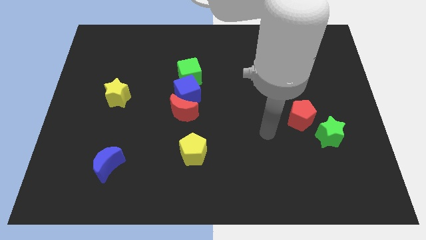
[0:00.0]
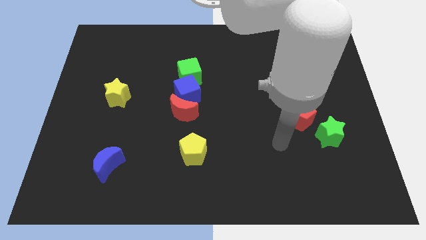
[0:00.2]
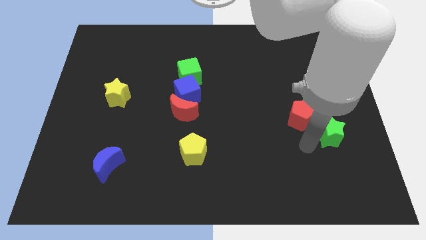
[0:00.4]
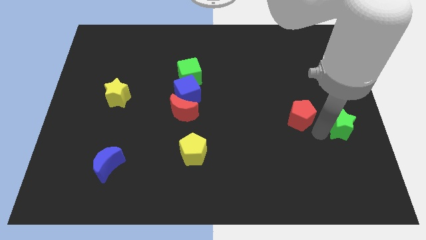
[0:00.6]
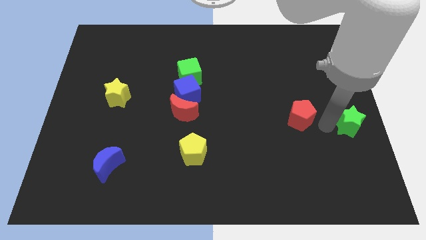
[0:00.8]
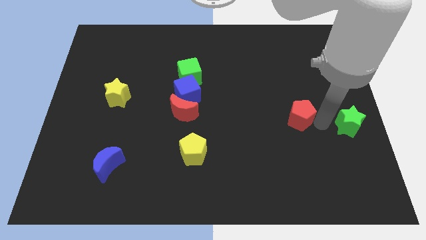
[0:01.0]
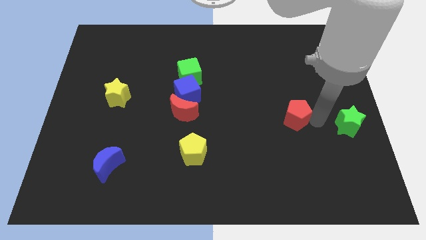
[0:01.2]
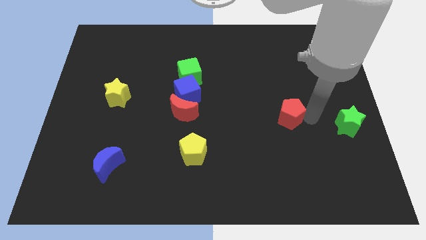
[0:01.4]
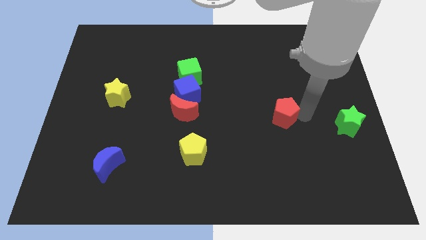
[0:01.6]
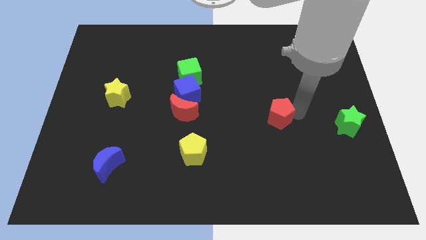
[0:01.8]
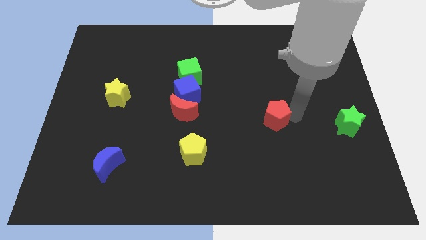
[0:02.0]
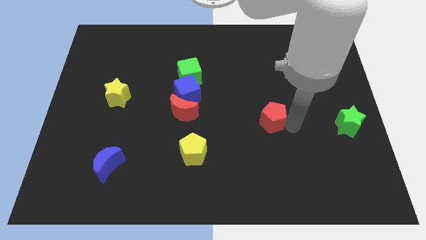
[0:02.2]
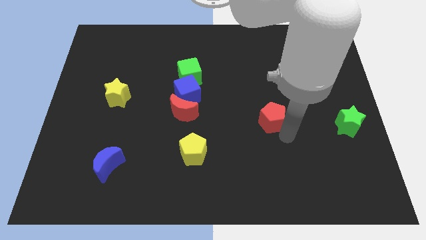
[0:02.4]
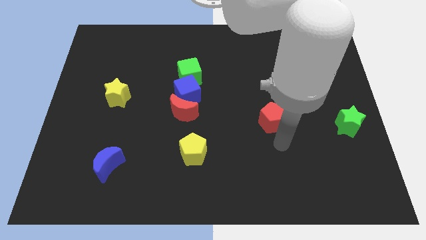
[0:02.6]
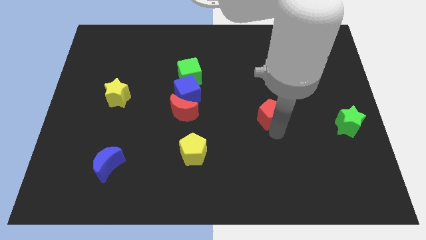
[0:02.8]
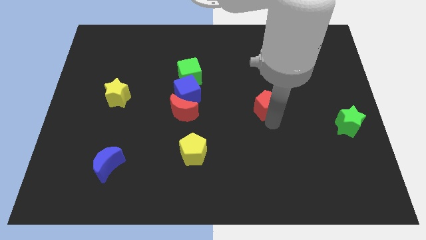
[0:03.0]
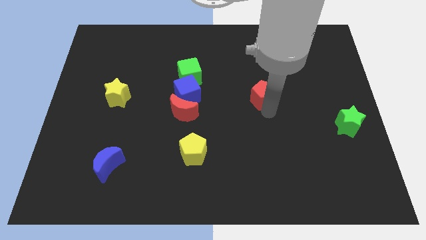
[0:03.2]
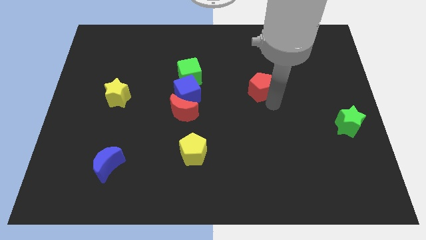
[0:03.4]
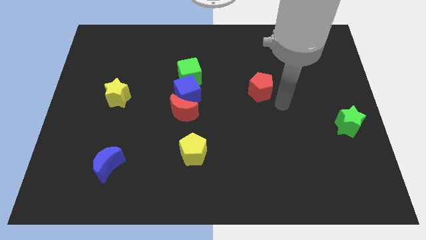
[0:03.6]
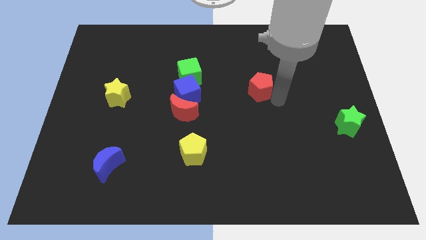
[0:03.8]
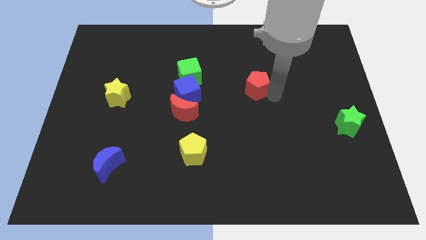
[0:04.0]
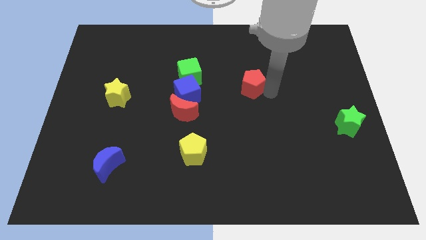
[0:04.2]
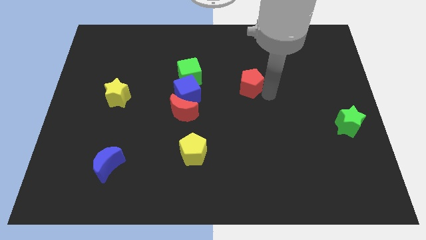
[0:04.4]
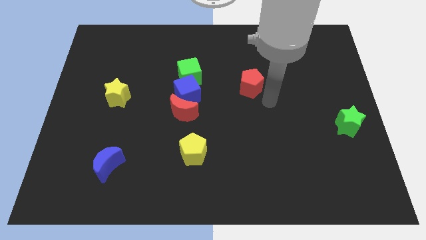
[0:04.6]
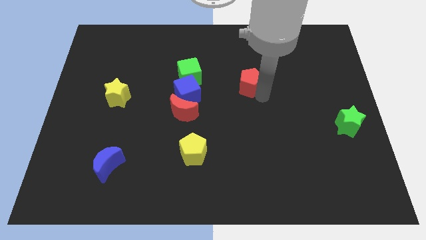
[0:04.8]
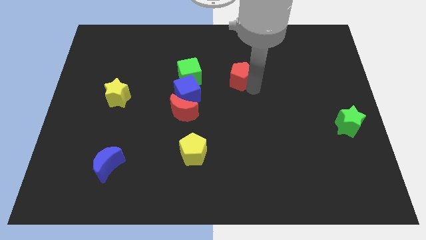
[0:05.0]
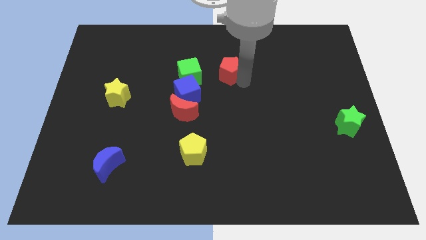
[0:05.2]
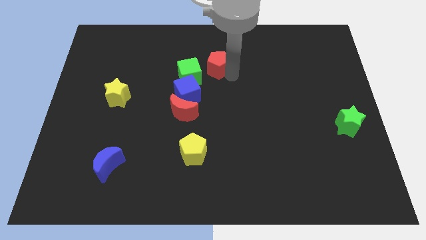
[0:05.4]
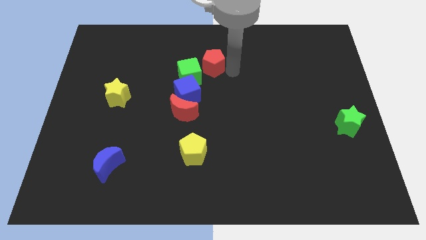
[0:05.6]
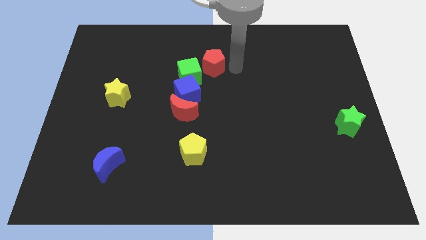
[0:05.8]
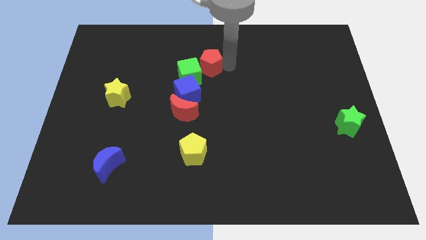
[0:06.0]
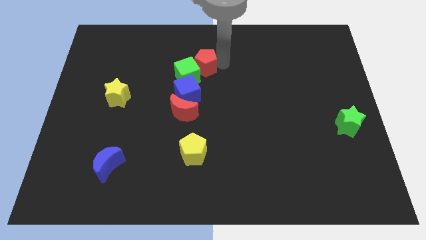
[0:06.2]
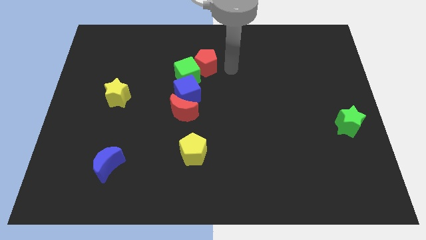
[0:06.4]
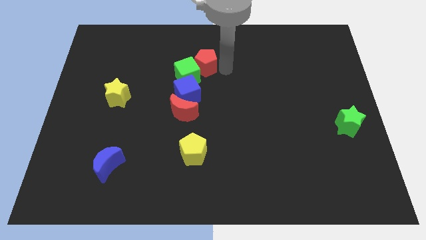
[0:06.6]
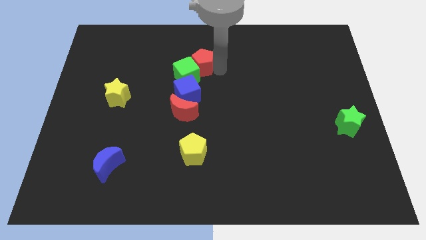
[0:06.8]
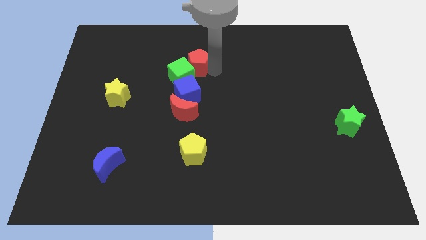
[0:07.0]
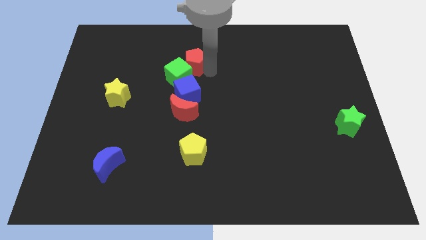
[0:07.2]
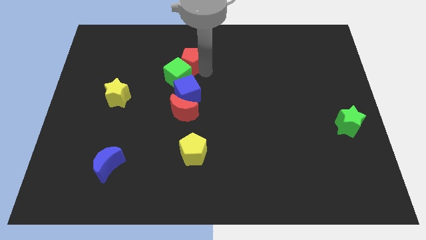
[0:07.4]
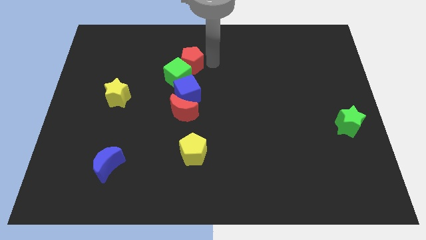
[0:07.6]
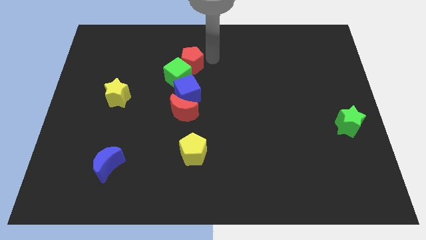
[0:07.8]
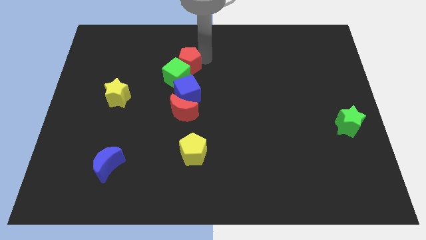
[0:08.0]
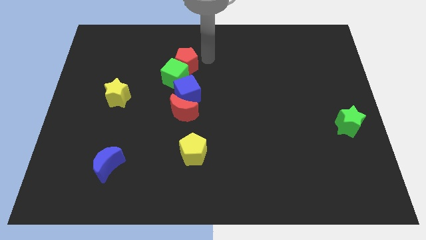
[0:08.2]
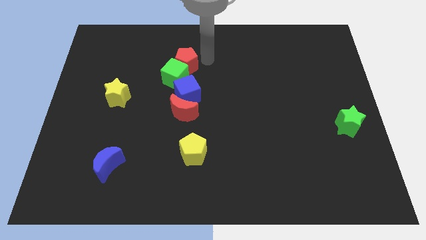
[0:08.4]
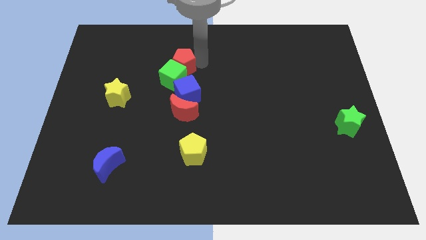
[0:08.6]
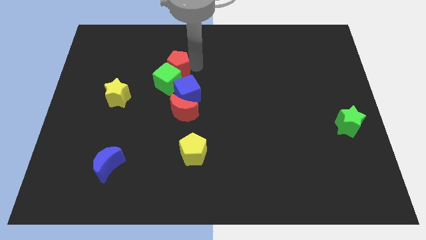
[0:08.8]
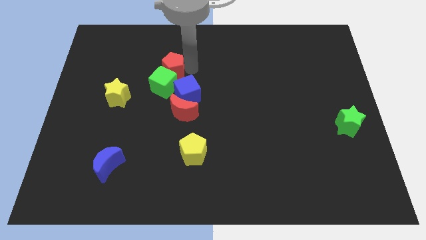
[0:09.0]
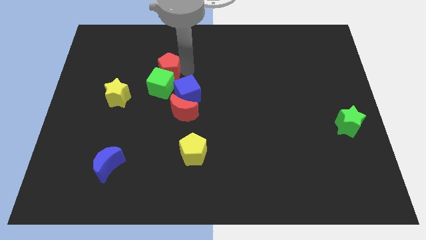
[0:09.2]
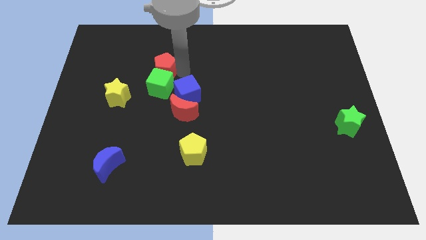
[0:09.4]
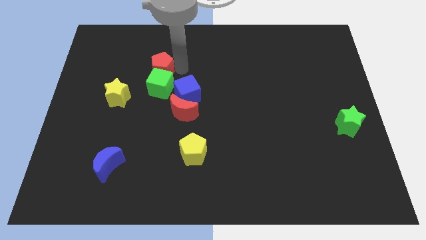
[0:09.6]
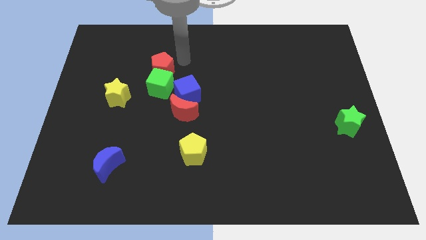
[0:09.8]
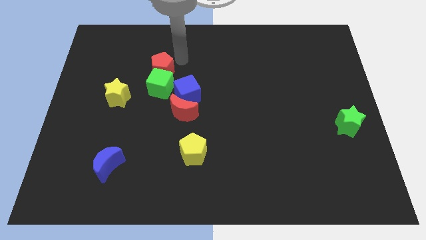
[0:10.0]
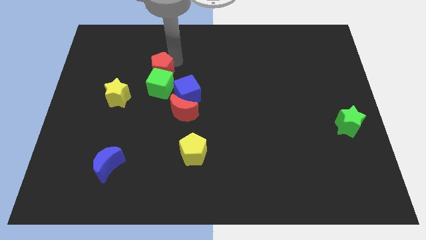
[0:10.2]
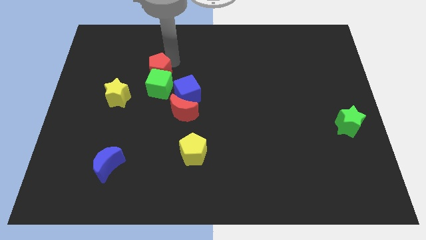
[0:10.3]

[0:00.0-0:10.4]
move the red pentagon to the top right of the yellow star

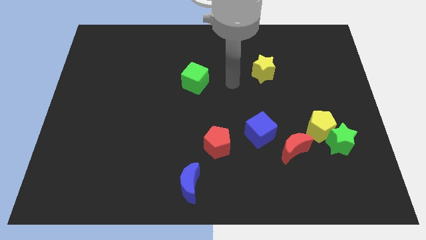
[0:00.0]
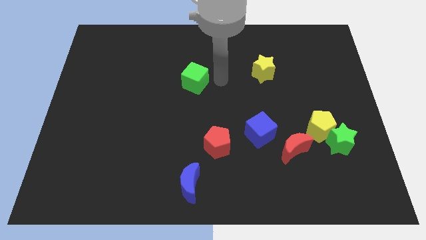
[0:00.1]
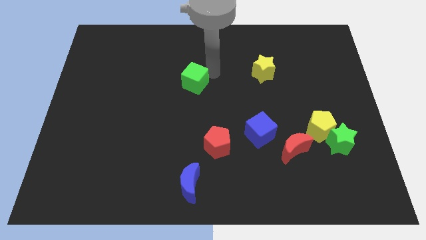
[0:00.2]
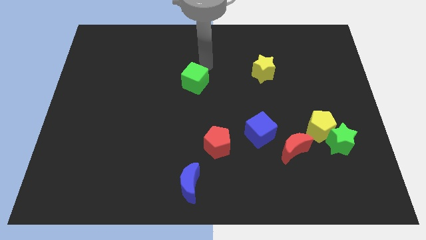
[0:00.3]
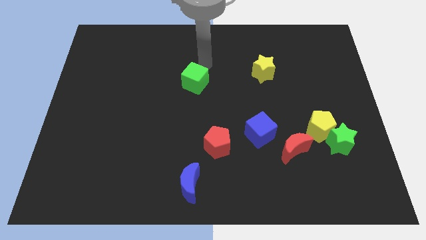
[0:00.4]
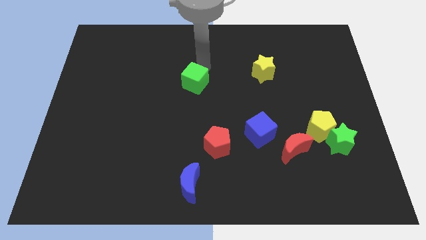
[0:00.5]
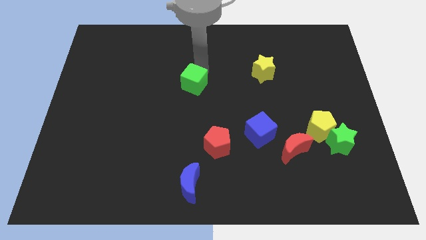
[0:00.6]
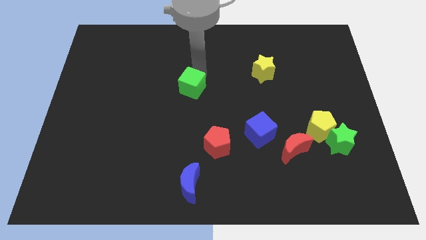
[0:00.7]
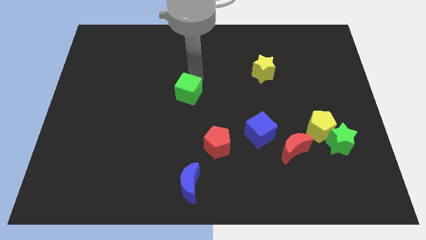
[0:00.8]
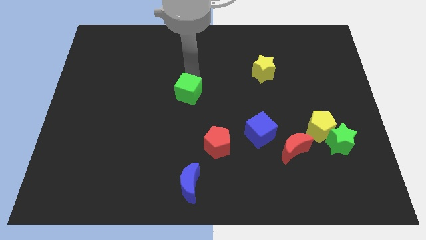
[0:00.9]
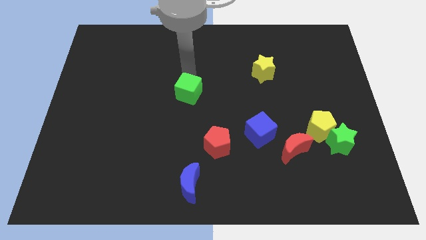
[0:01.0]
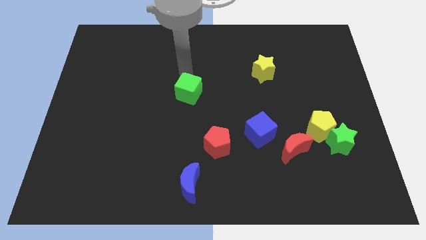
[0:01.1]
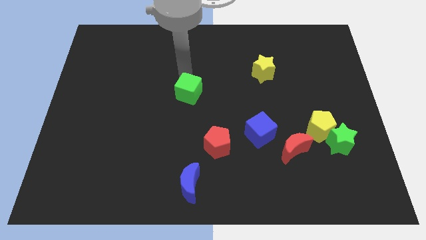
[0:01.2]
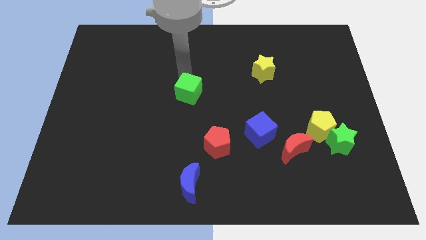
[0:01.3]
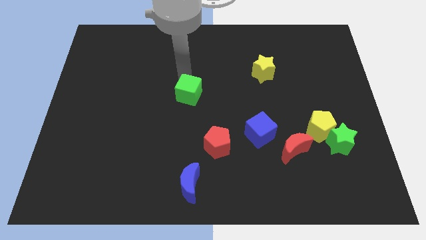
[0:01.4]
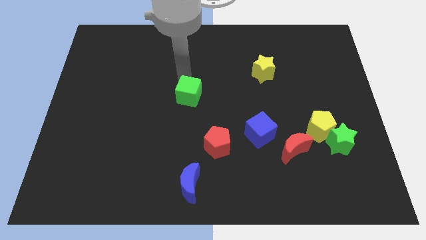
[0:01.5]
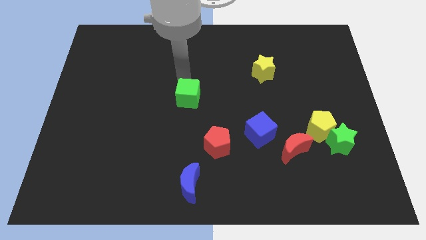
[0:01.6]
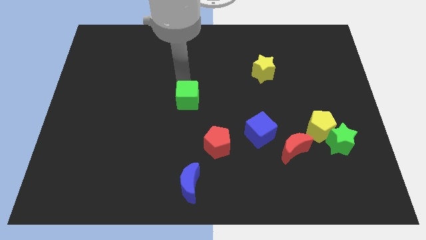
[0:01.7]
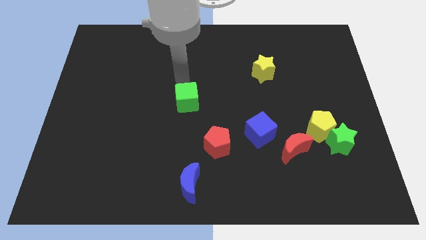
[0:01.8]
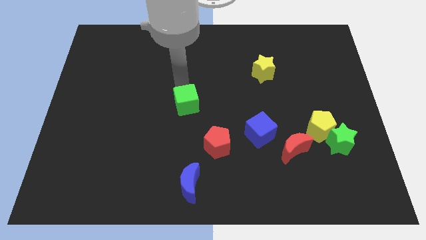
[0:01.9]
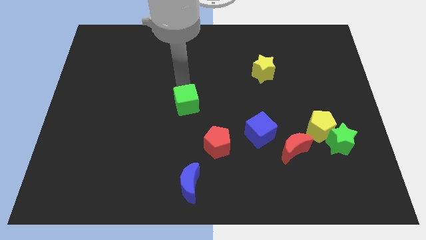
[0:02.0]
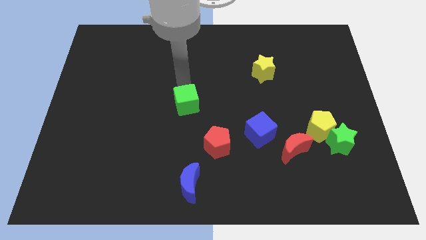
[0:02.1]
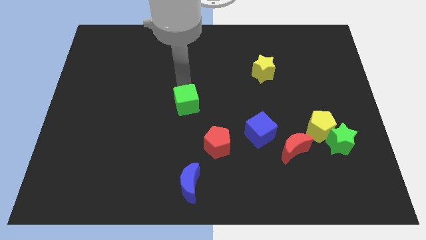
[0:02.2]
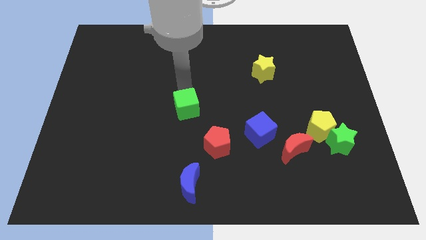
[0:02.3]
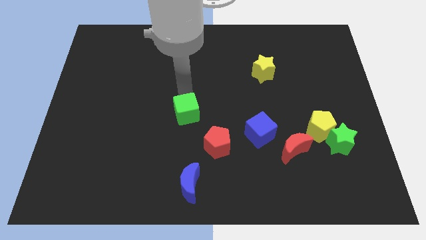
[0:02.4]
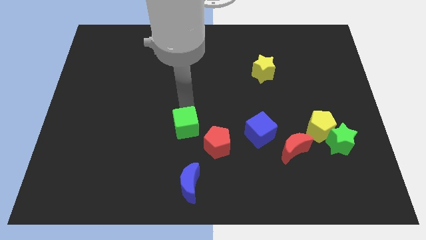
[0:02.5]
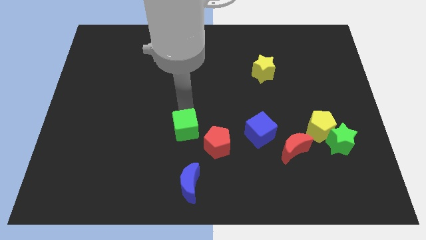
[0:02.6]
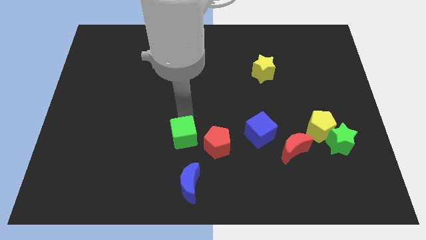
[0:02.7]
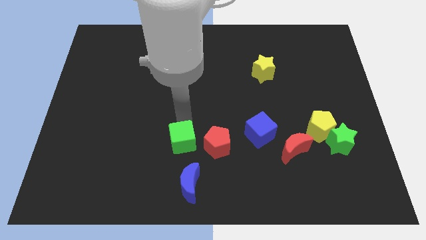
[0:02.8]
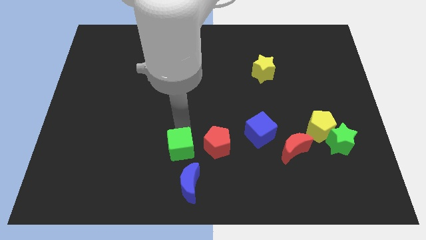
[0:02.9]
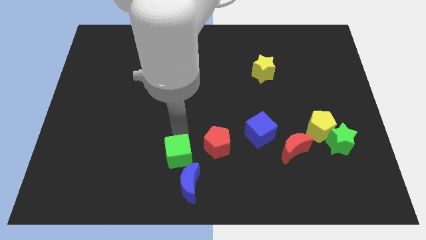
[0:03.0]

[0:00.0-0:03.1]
slide the green cube to the bottom left of the red pentagon
